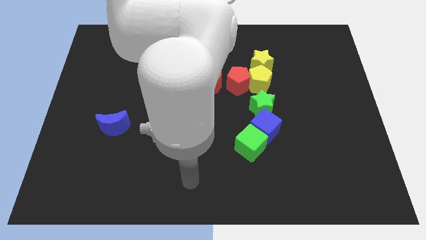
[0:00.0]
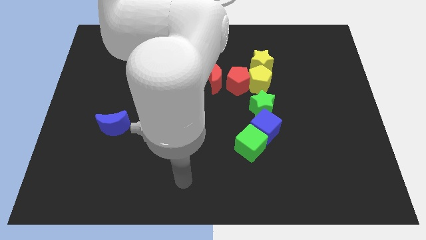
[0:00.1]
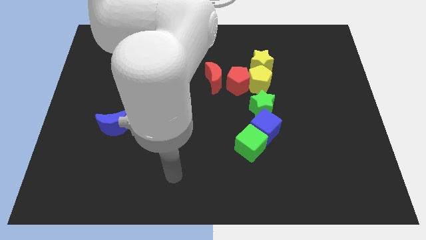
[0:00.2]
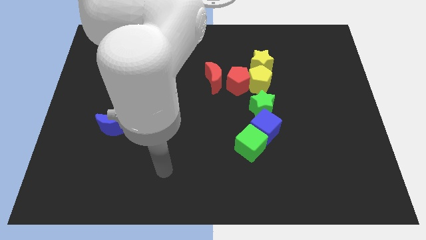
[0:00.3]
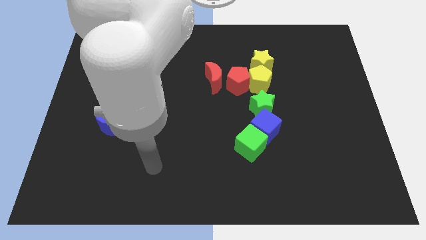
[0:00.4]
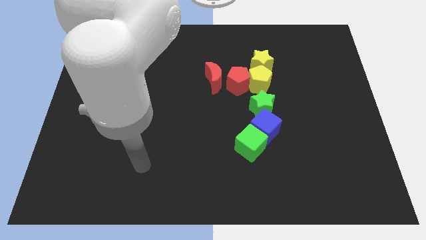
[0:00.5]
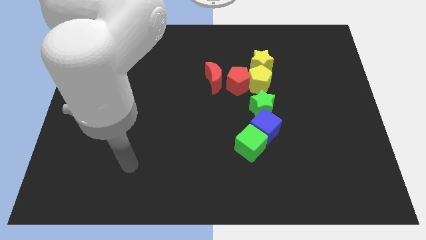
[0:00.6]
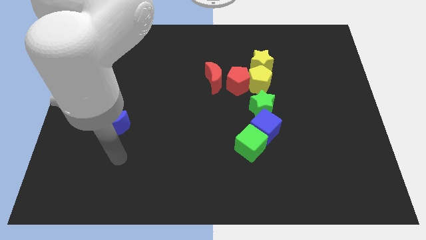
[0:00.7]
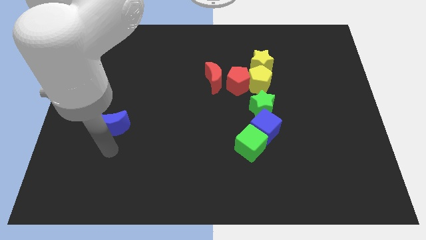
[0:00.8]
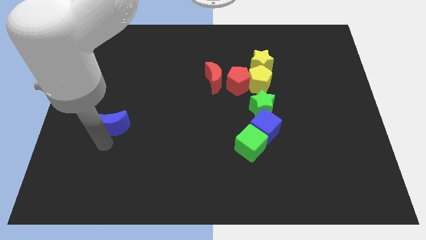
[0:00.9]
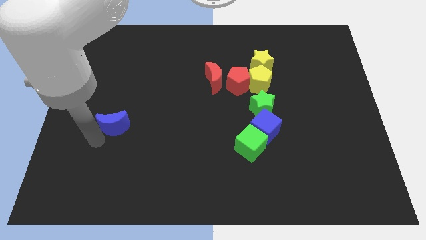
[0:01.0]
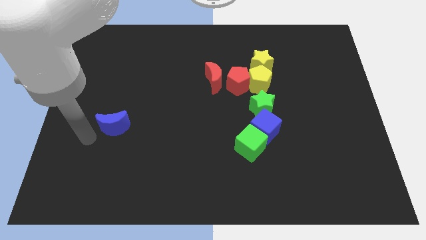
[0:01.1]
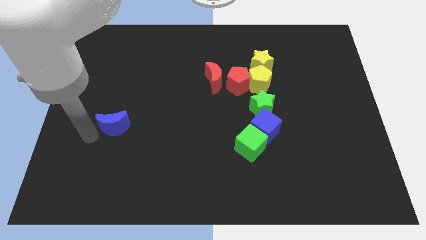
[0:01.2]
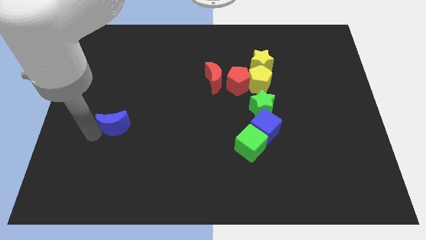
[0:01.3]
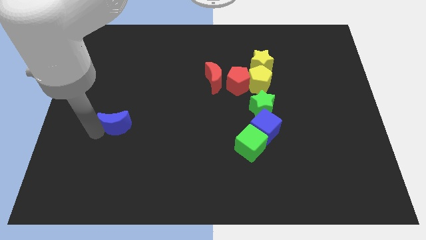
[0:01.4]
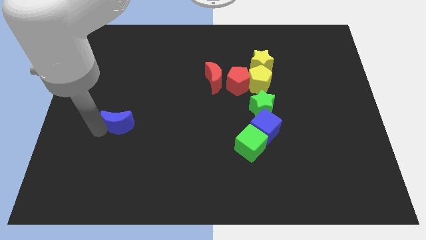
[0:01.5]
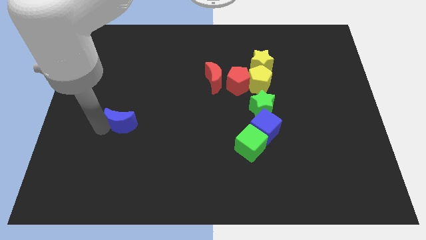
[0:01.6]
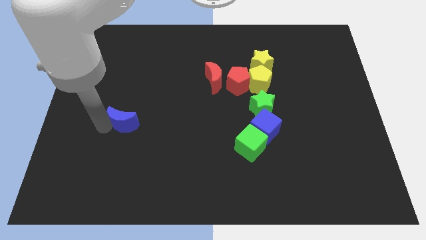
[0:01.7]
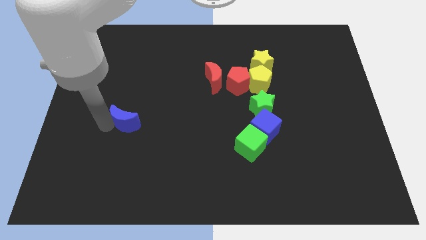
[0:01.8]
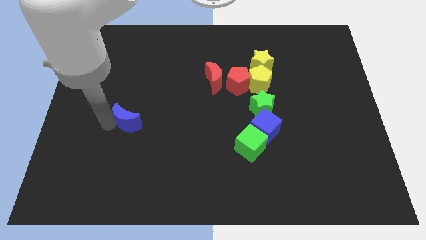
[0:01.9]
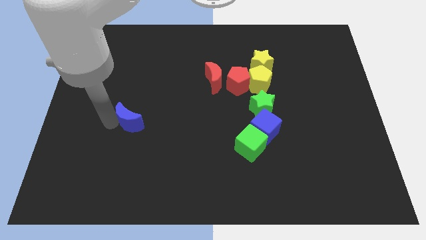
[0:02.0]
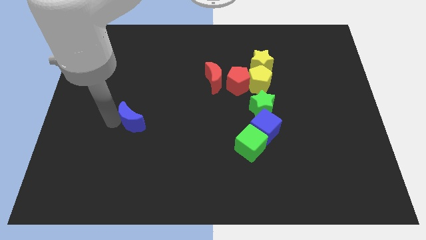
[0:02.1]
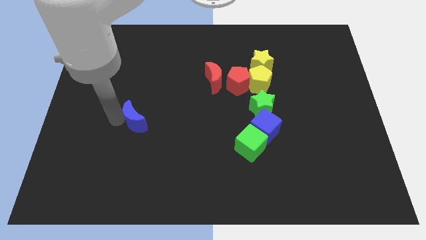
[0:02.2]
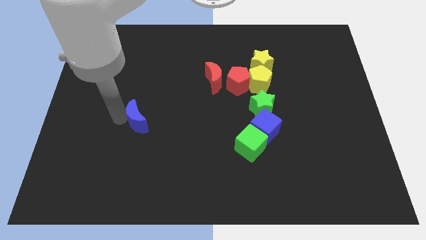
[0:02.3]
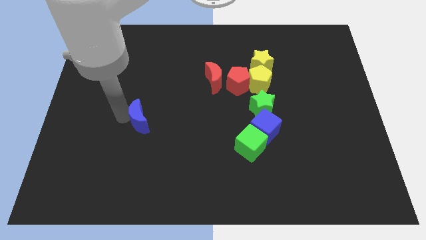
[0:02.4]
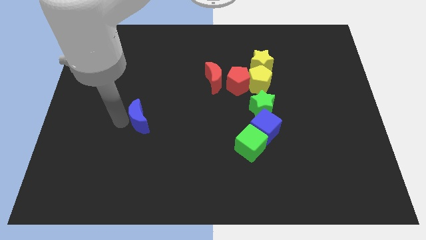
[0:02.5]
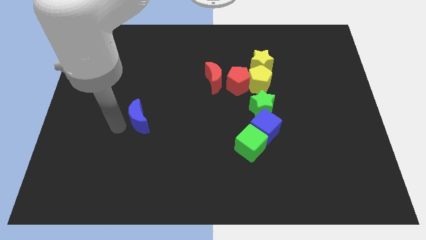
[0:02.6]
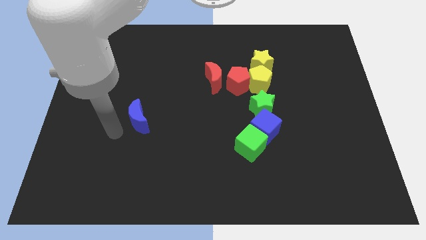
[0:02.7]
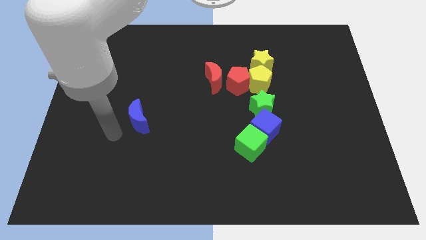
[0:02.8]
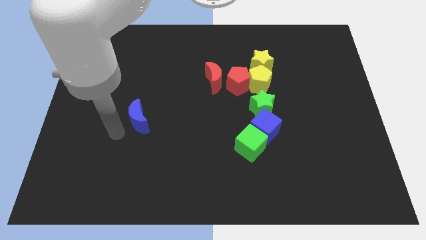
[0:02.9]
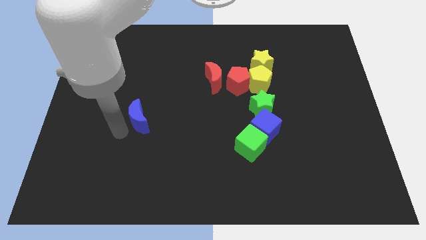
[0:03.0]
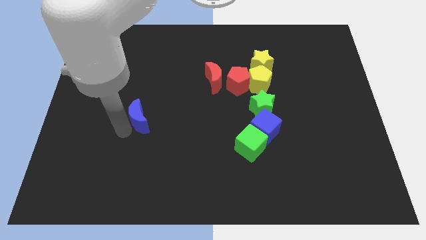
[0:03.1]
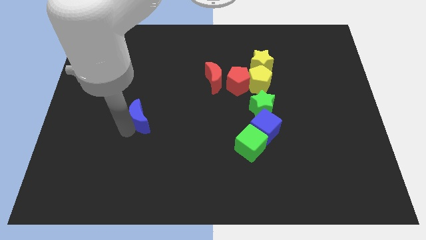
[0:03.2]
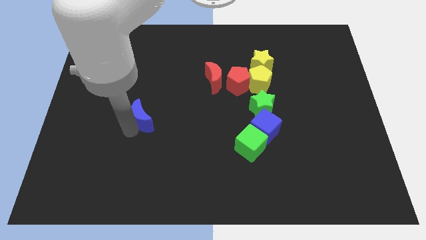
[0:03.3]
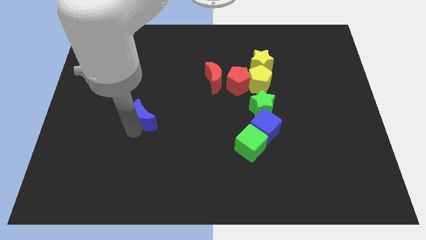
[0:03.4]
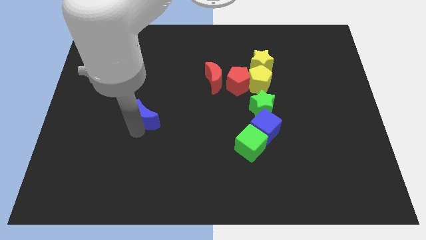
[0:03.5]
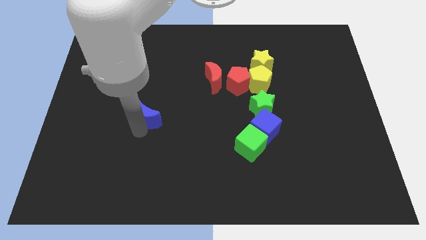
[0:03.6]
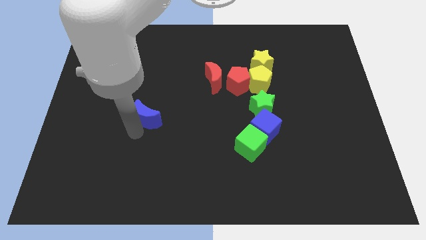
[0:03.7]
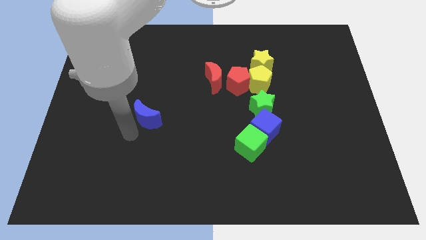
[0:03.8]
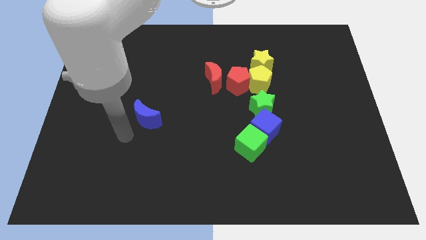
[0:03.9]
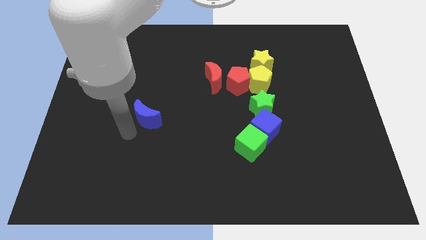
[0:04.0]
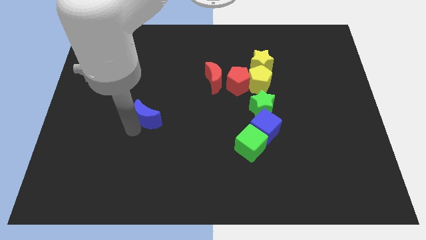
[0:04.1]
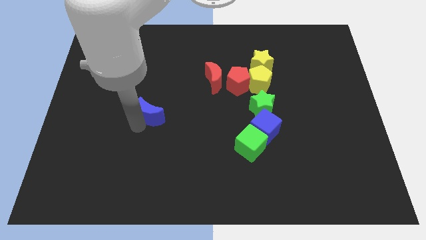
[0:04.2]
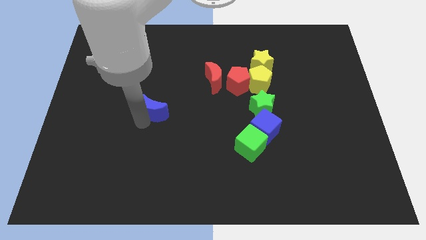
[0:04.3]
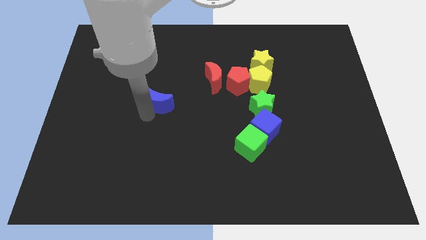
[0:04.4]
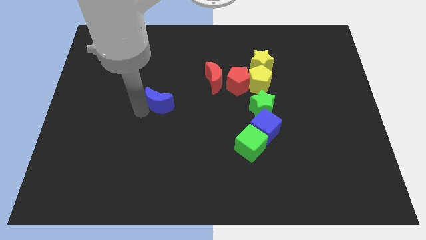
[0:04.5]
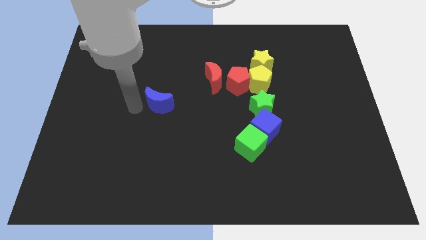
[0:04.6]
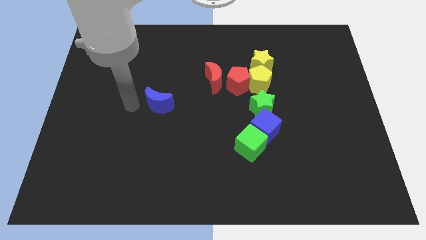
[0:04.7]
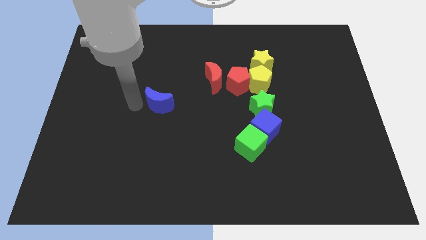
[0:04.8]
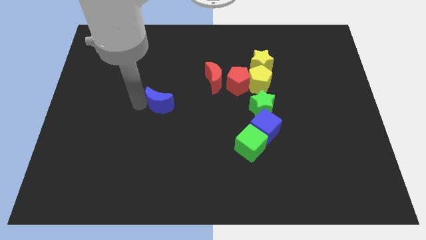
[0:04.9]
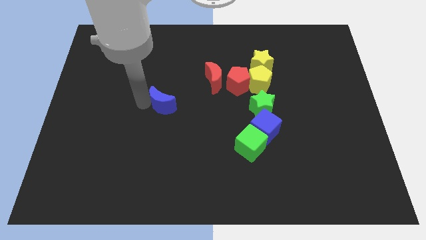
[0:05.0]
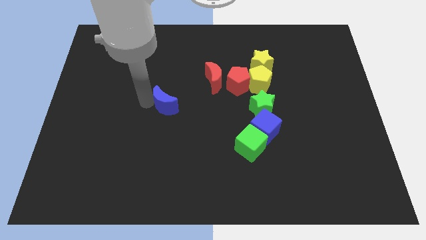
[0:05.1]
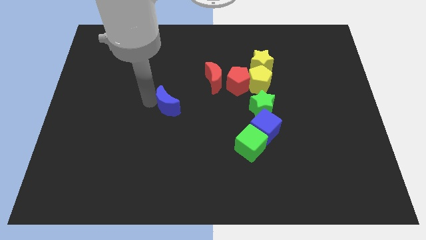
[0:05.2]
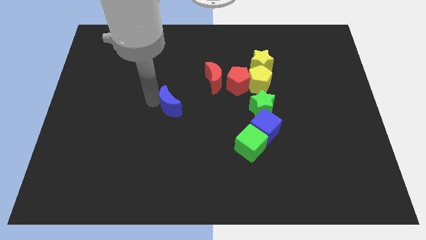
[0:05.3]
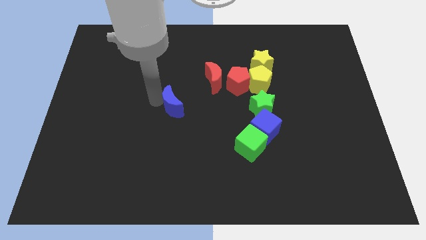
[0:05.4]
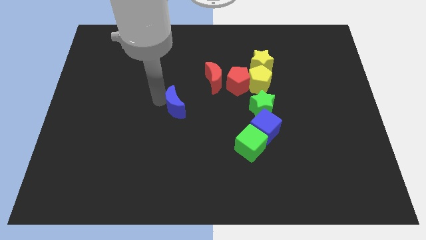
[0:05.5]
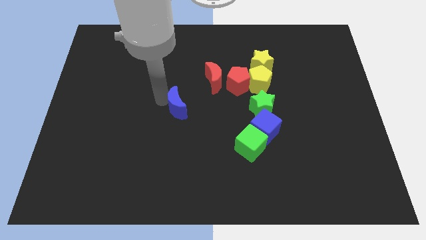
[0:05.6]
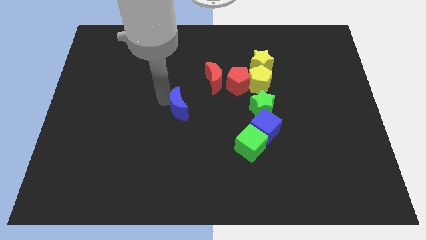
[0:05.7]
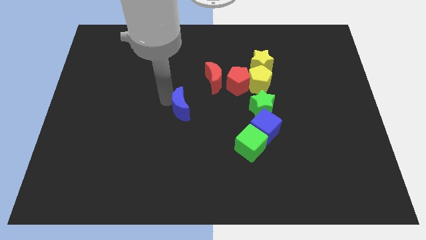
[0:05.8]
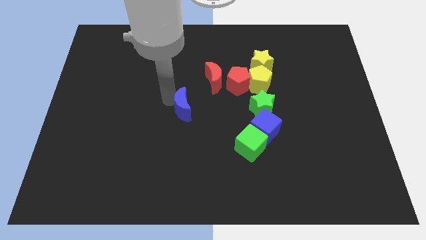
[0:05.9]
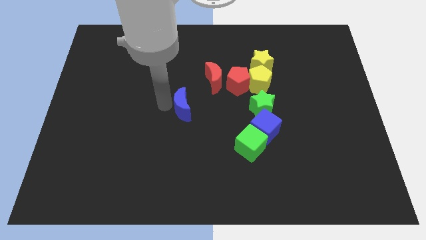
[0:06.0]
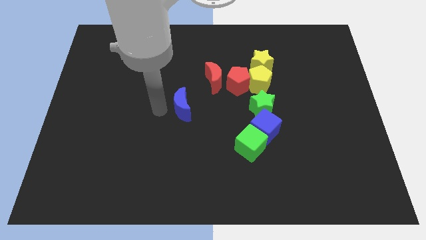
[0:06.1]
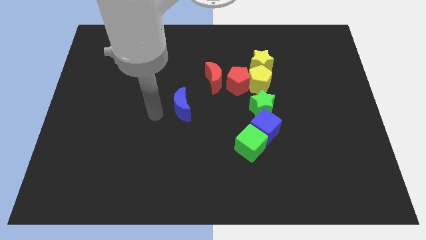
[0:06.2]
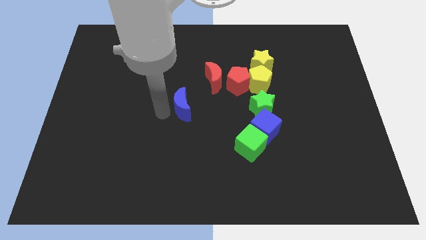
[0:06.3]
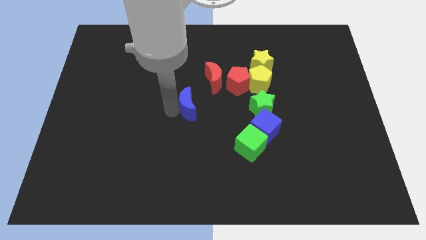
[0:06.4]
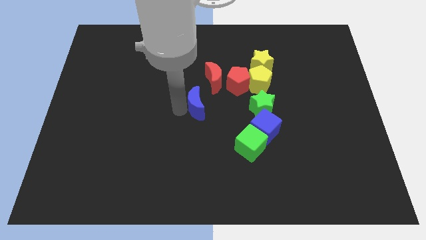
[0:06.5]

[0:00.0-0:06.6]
push the blue moon diagonally down and to the left of the red pentagon

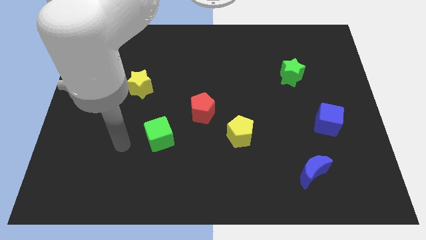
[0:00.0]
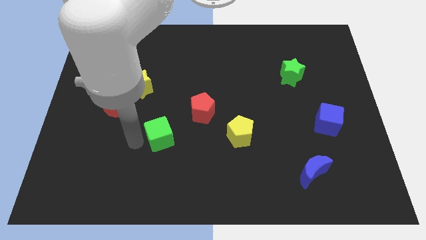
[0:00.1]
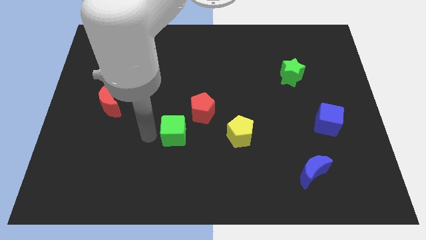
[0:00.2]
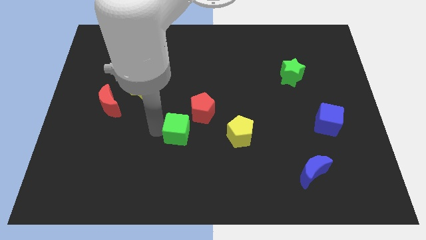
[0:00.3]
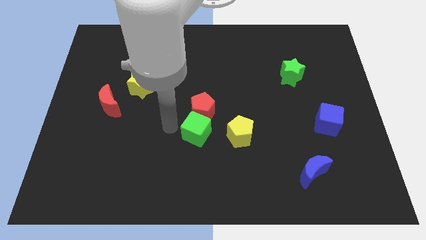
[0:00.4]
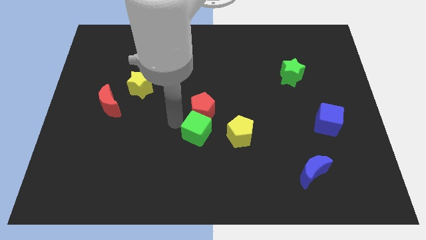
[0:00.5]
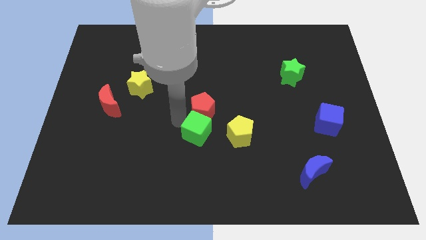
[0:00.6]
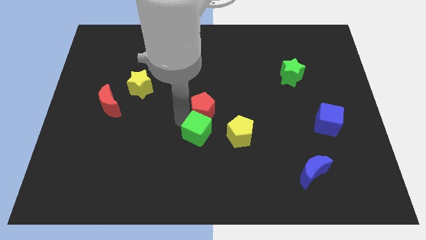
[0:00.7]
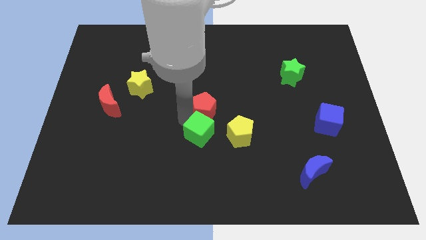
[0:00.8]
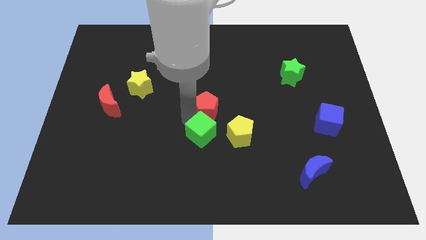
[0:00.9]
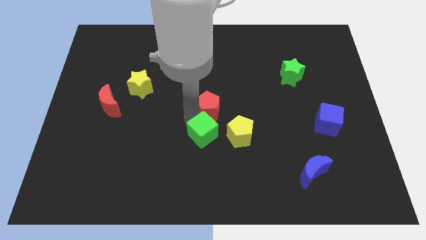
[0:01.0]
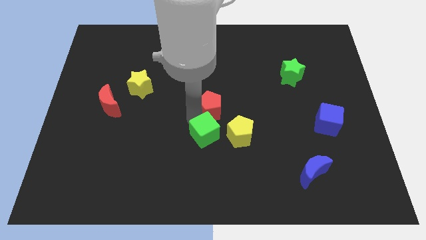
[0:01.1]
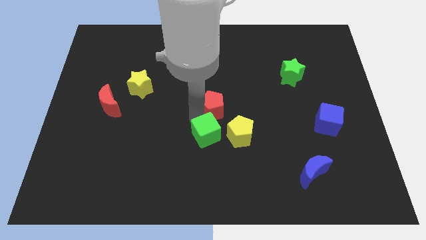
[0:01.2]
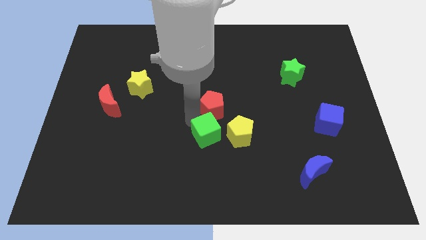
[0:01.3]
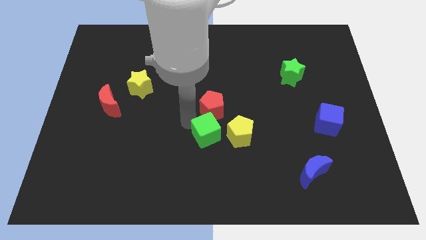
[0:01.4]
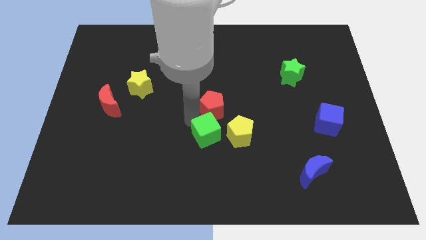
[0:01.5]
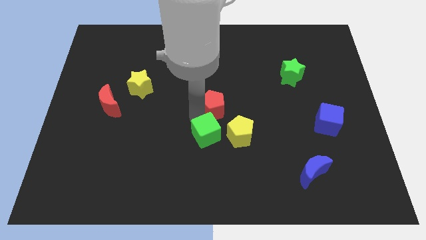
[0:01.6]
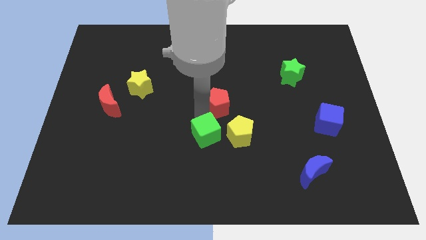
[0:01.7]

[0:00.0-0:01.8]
push the red pentagon above the yellow pentagon
